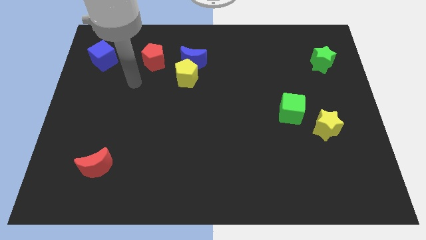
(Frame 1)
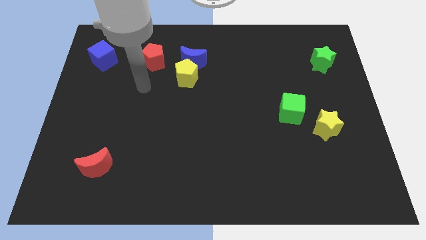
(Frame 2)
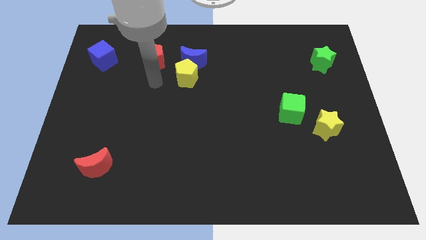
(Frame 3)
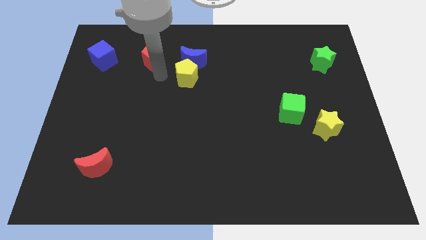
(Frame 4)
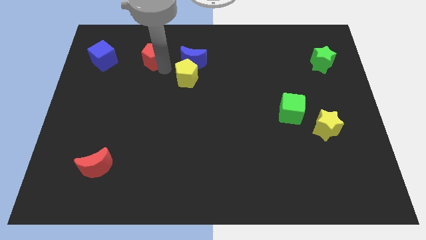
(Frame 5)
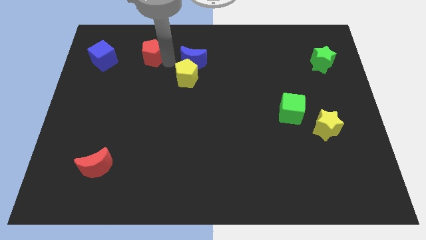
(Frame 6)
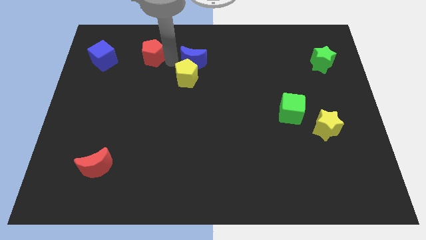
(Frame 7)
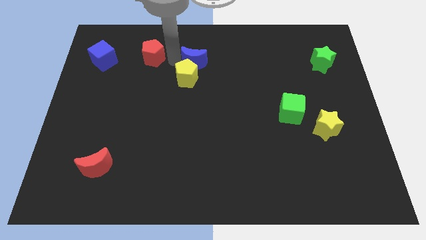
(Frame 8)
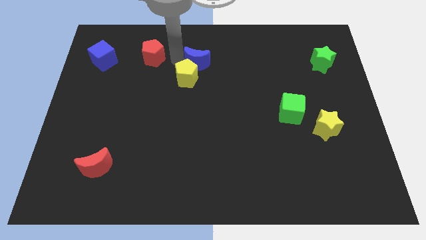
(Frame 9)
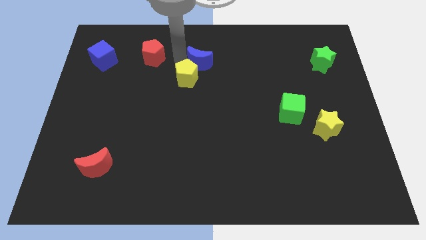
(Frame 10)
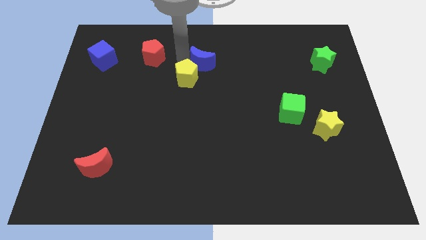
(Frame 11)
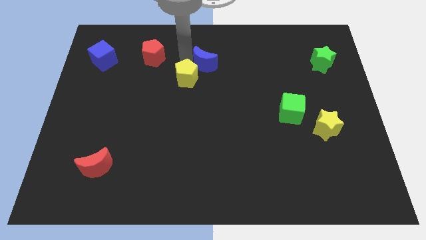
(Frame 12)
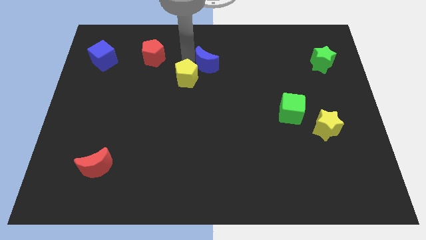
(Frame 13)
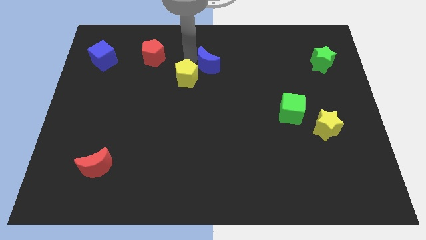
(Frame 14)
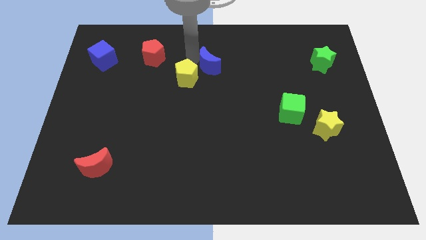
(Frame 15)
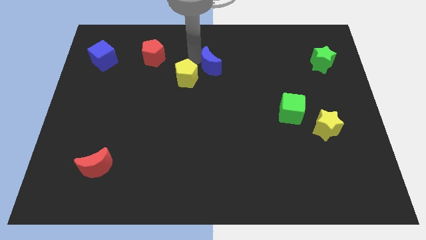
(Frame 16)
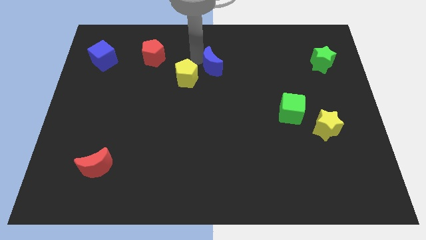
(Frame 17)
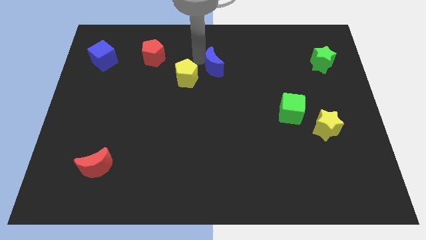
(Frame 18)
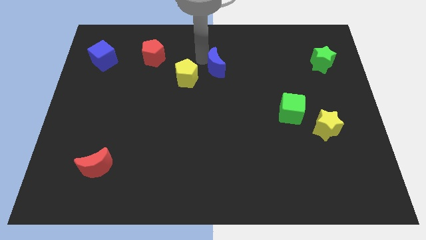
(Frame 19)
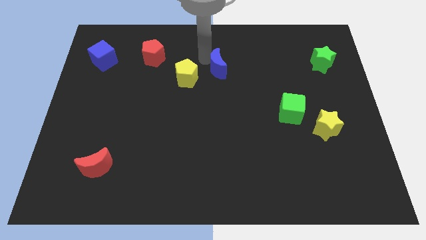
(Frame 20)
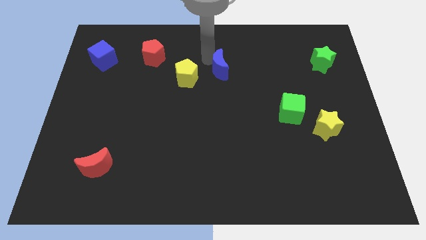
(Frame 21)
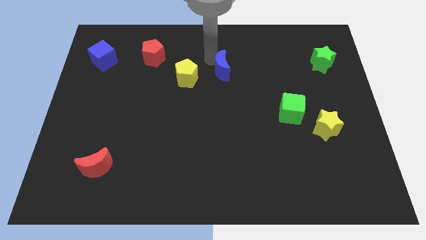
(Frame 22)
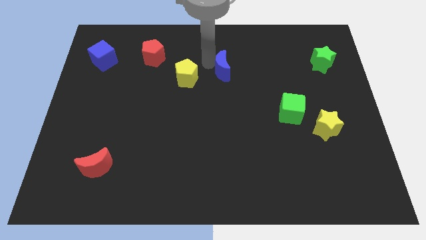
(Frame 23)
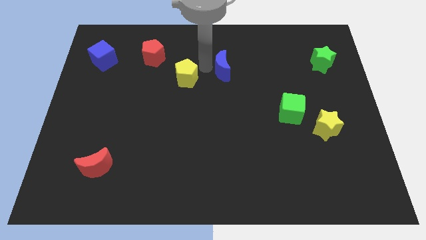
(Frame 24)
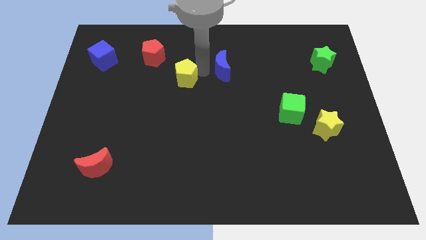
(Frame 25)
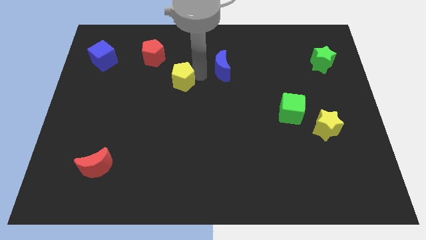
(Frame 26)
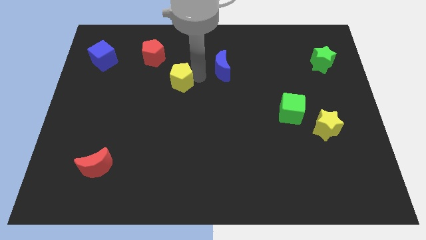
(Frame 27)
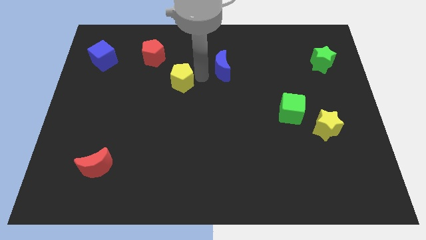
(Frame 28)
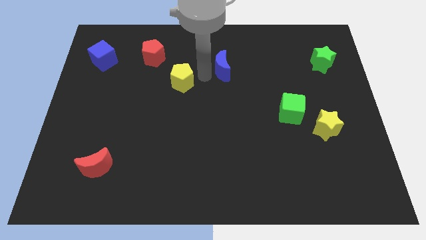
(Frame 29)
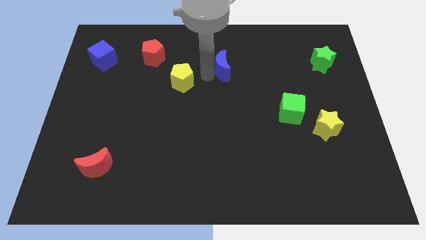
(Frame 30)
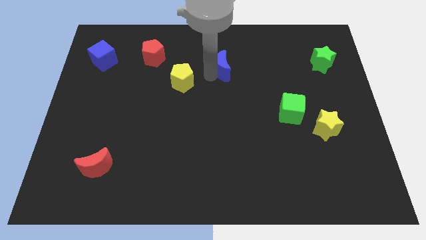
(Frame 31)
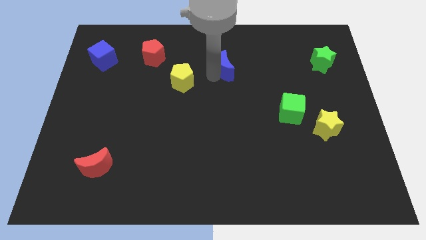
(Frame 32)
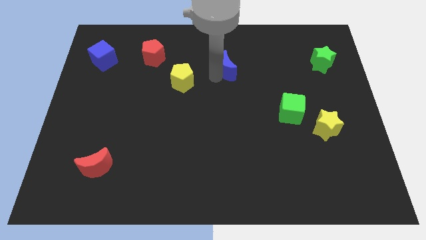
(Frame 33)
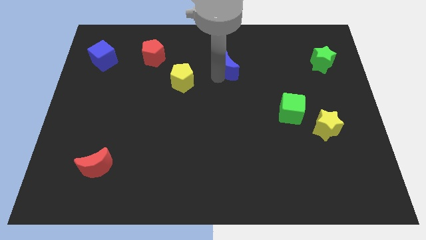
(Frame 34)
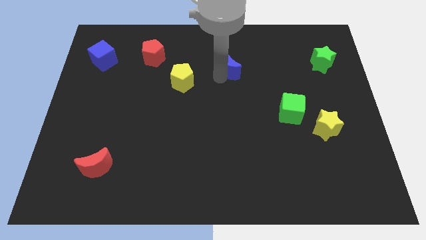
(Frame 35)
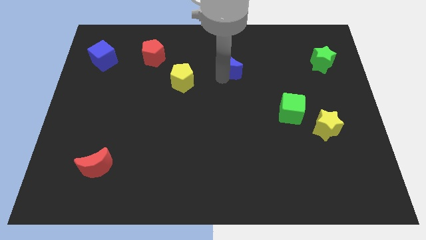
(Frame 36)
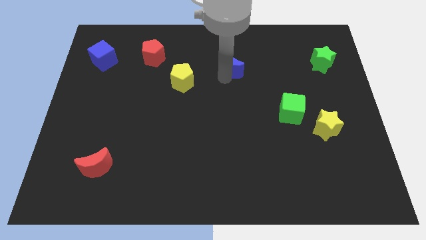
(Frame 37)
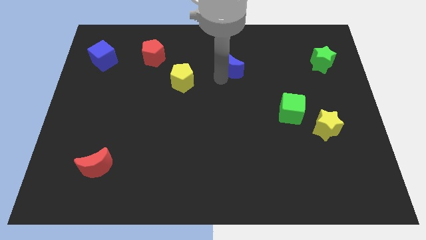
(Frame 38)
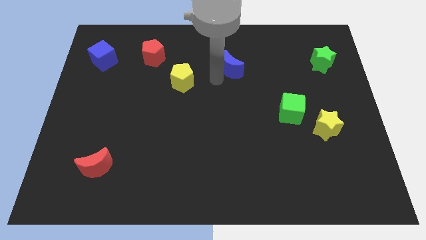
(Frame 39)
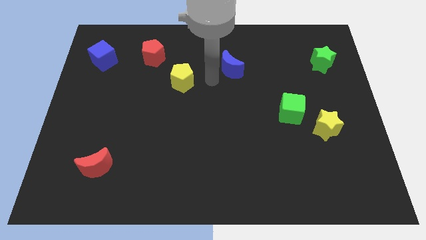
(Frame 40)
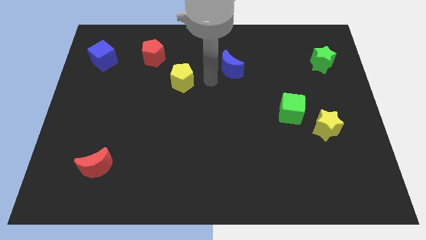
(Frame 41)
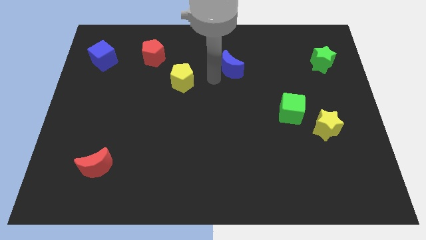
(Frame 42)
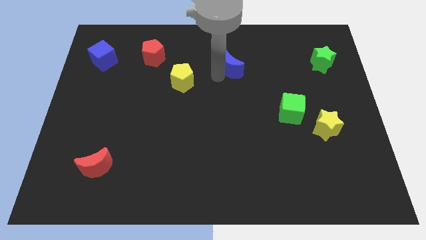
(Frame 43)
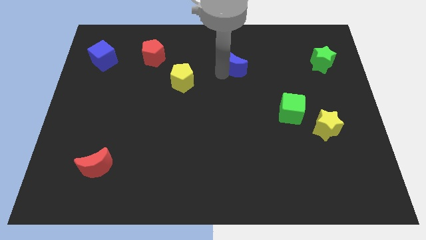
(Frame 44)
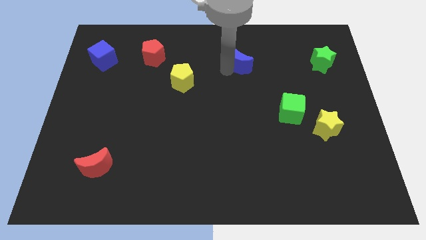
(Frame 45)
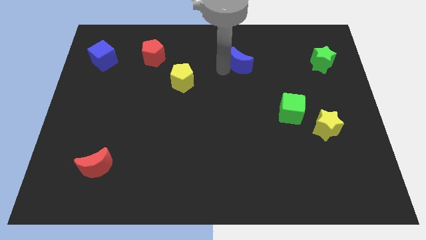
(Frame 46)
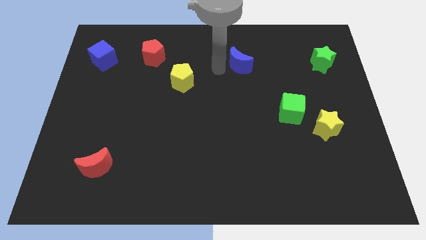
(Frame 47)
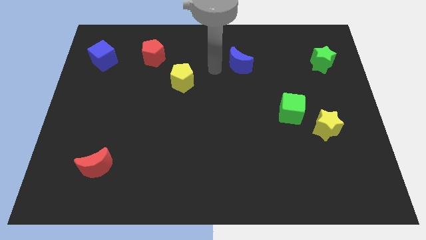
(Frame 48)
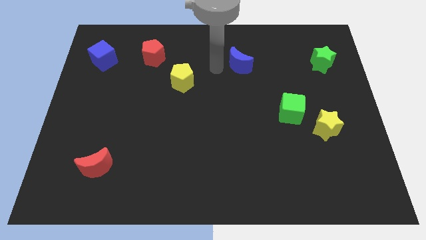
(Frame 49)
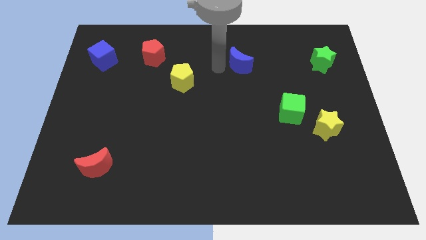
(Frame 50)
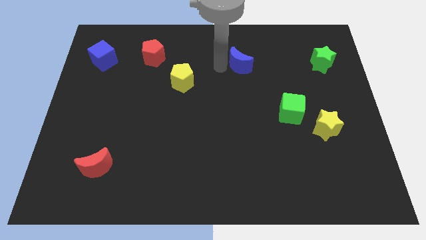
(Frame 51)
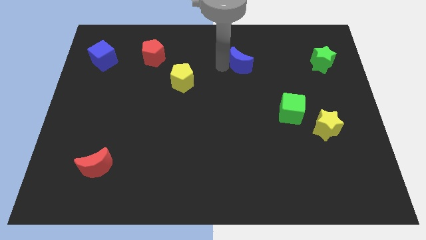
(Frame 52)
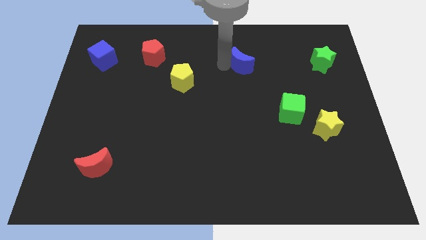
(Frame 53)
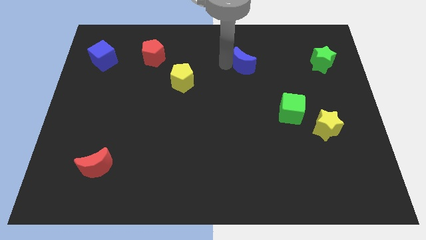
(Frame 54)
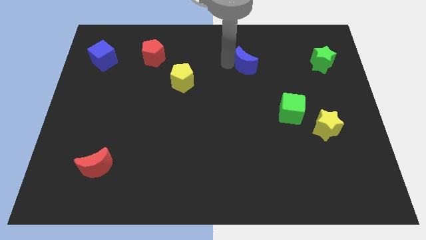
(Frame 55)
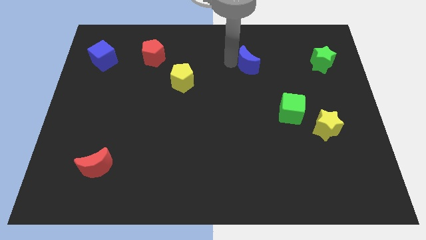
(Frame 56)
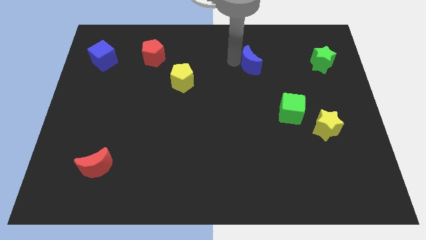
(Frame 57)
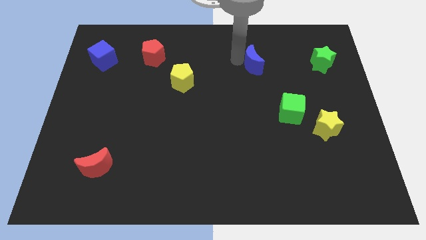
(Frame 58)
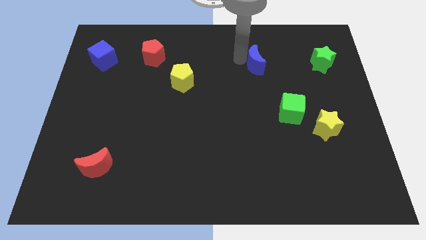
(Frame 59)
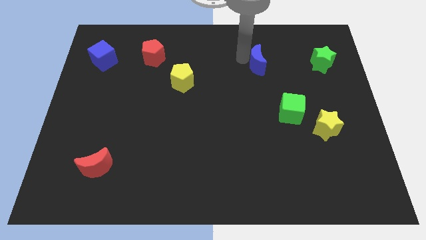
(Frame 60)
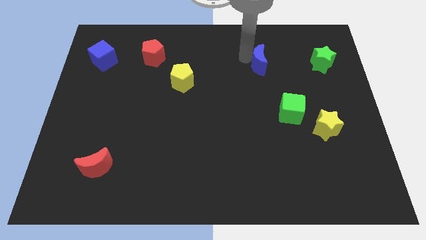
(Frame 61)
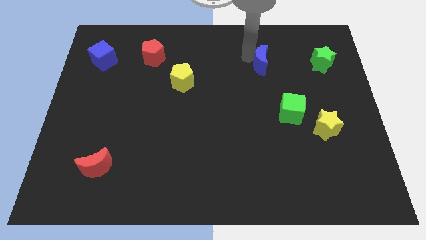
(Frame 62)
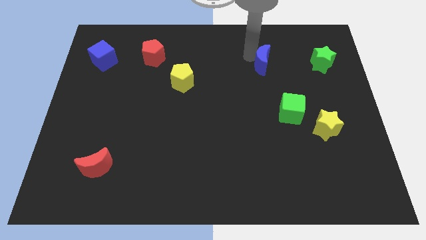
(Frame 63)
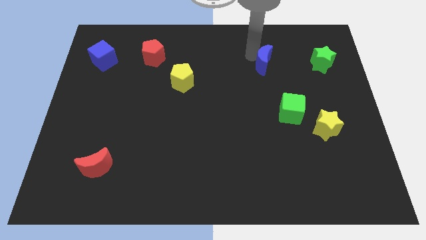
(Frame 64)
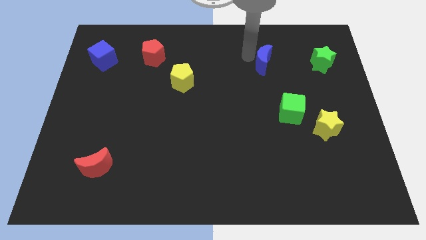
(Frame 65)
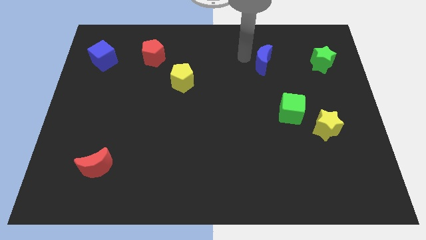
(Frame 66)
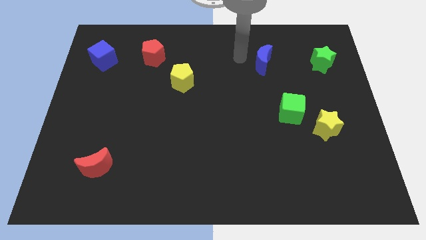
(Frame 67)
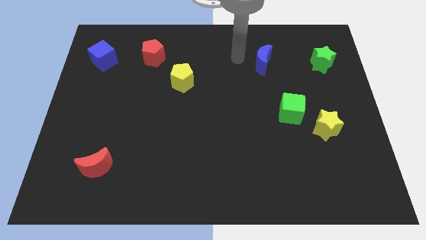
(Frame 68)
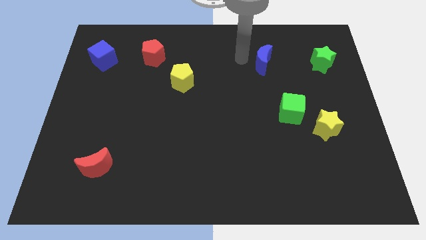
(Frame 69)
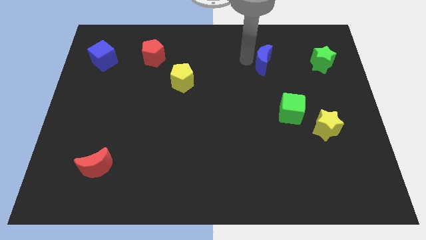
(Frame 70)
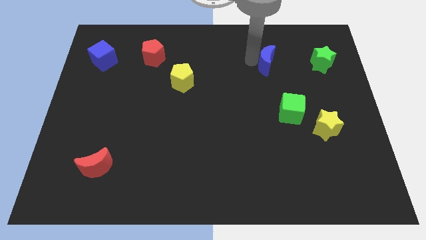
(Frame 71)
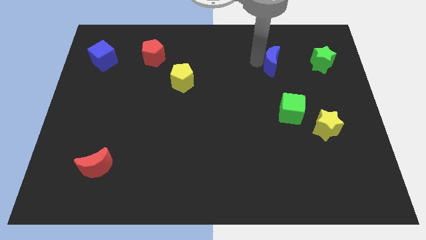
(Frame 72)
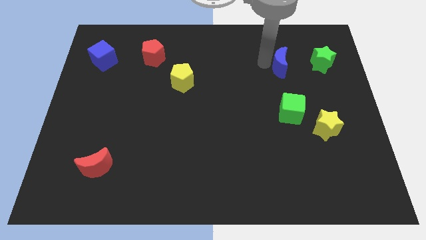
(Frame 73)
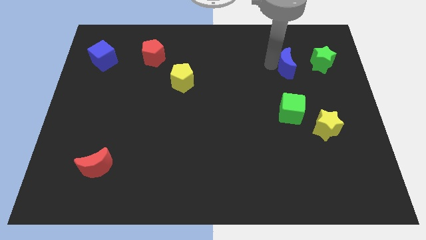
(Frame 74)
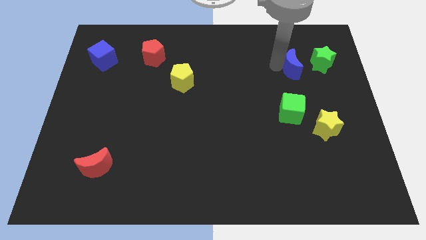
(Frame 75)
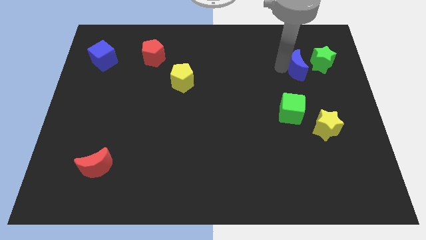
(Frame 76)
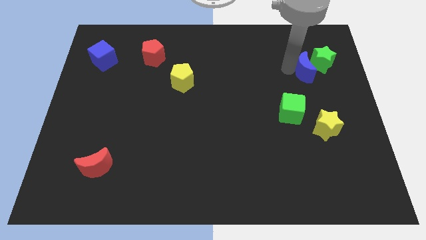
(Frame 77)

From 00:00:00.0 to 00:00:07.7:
move the blue moon close to the green star

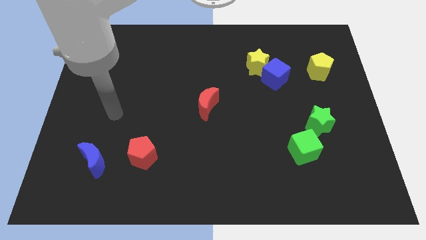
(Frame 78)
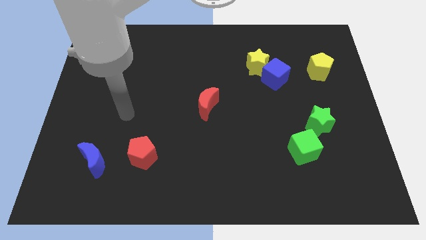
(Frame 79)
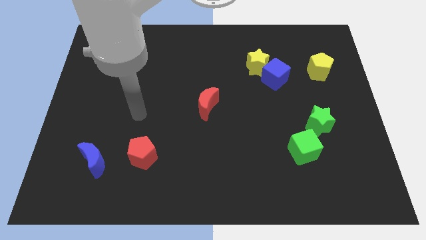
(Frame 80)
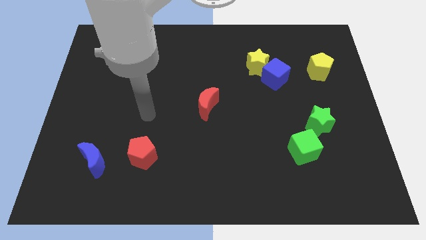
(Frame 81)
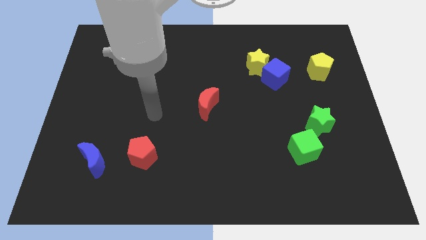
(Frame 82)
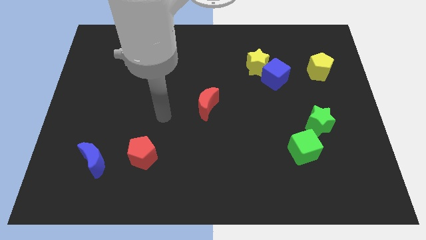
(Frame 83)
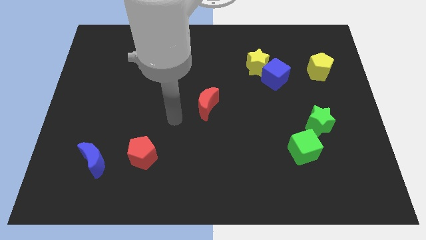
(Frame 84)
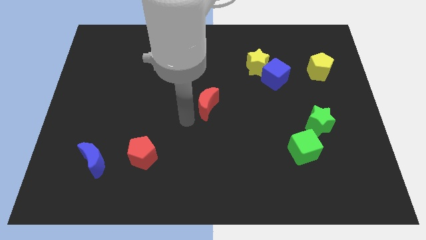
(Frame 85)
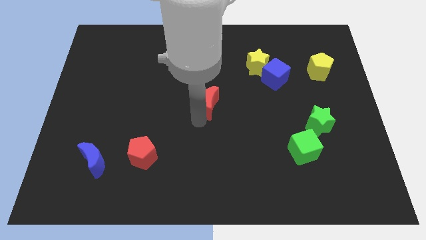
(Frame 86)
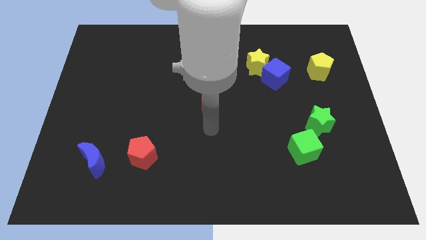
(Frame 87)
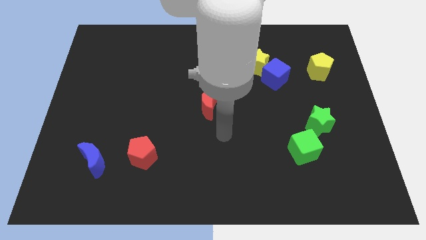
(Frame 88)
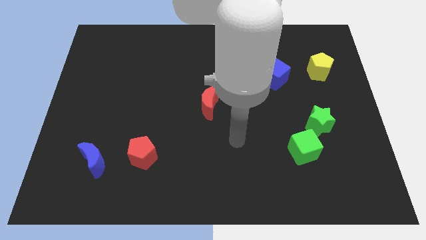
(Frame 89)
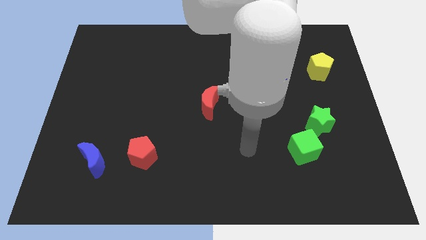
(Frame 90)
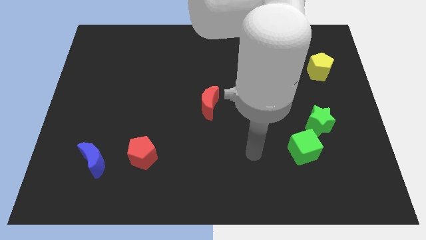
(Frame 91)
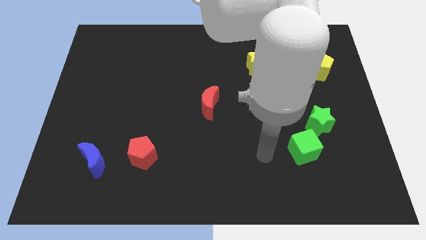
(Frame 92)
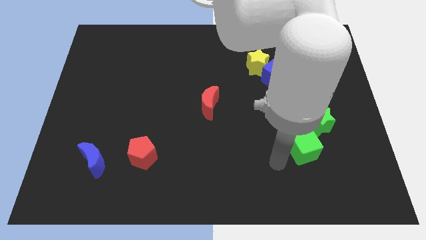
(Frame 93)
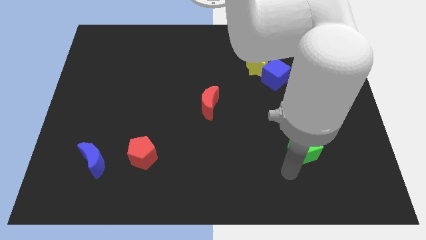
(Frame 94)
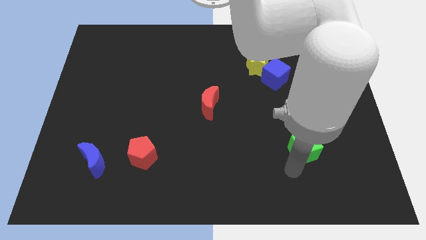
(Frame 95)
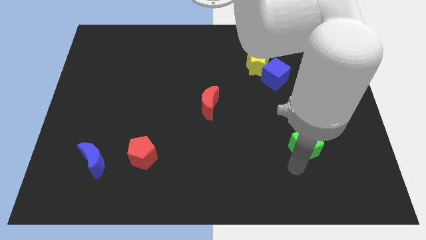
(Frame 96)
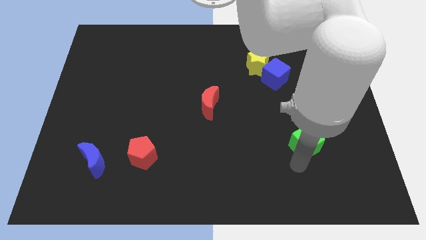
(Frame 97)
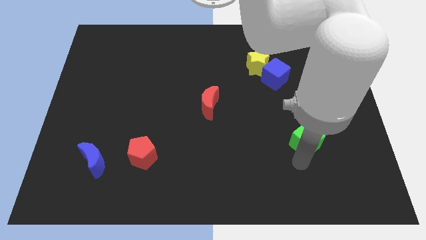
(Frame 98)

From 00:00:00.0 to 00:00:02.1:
put the green cube close to the green star
